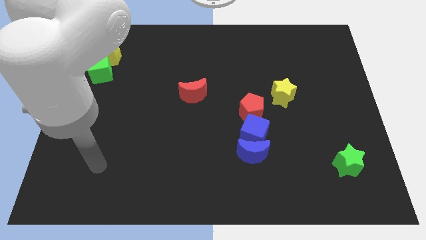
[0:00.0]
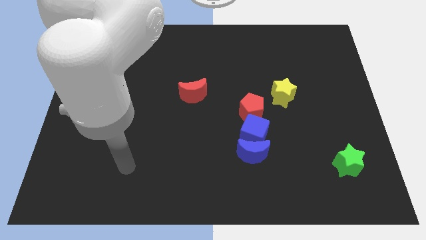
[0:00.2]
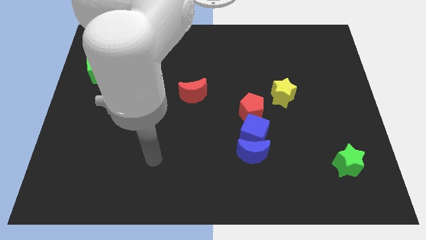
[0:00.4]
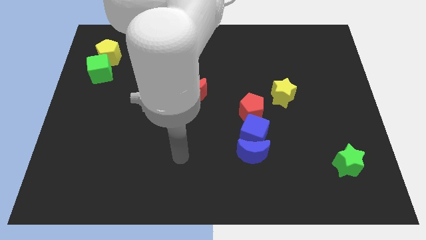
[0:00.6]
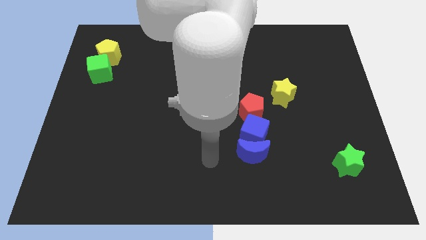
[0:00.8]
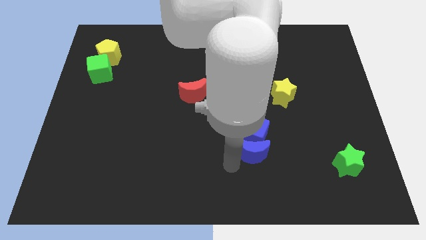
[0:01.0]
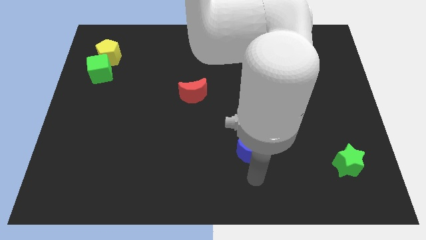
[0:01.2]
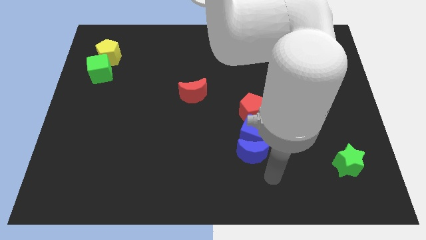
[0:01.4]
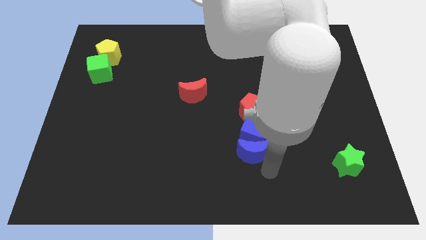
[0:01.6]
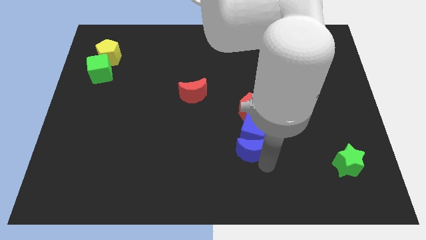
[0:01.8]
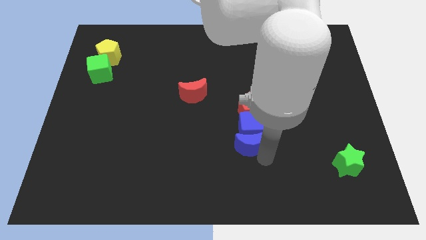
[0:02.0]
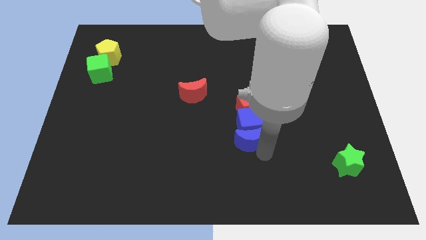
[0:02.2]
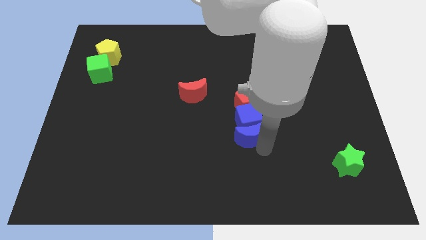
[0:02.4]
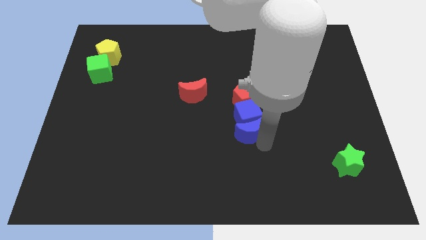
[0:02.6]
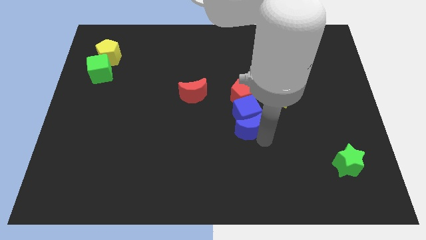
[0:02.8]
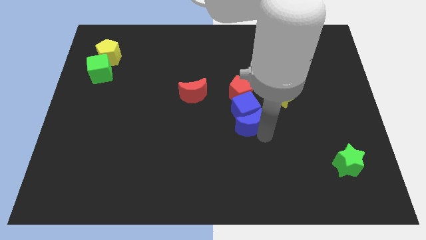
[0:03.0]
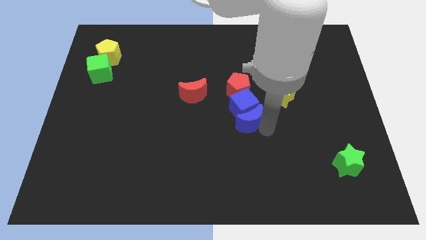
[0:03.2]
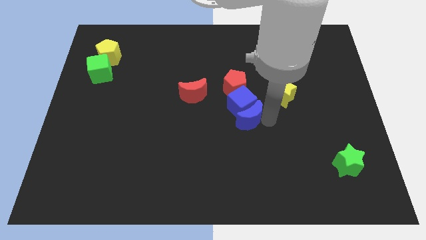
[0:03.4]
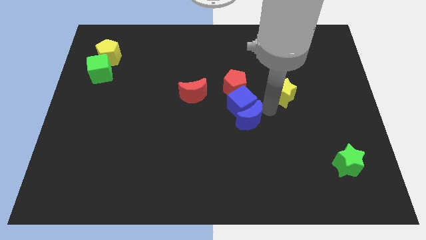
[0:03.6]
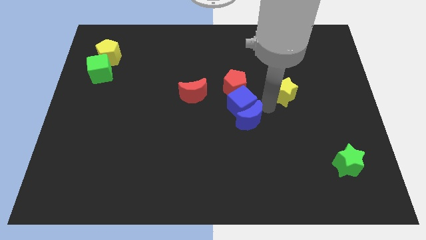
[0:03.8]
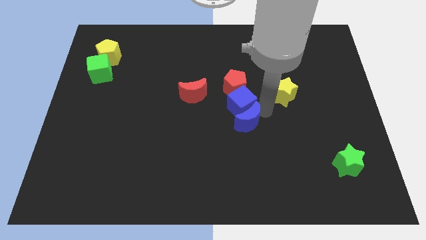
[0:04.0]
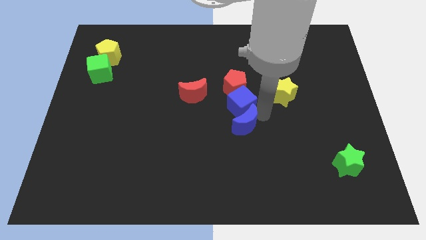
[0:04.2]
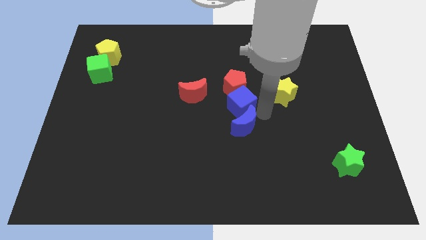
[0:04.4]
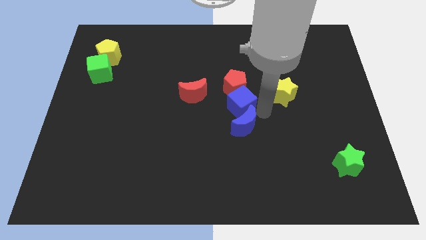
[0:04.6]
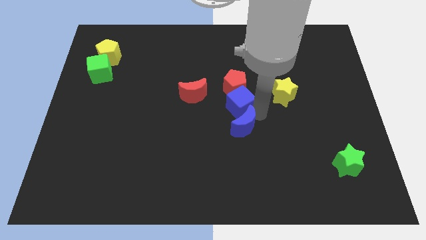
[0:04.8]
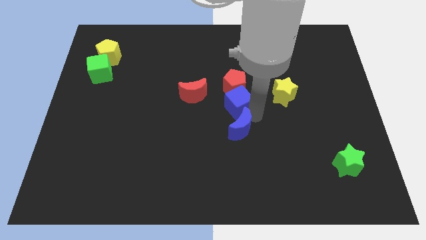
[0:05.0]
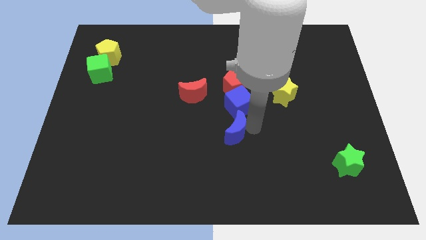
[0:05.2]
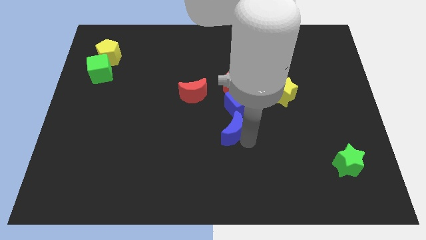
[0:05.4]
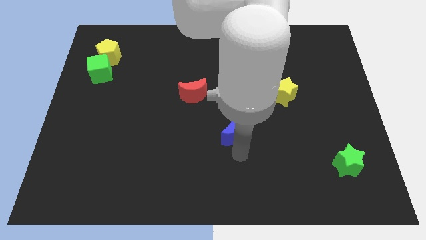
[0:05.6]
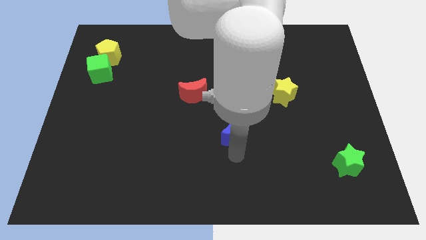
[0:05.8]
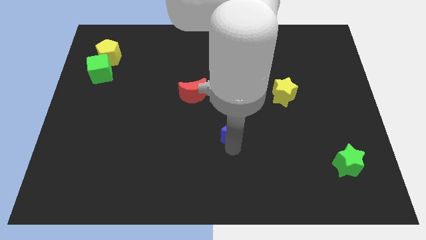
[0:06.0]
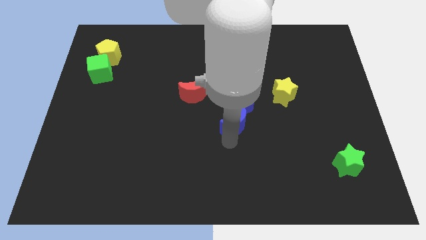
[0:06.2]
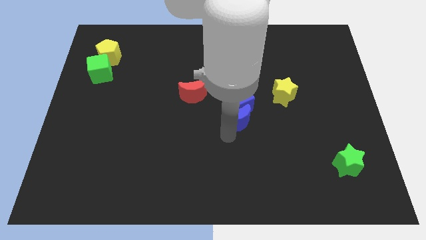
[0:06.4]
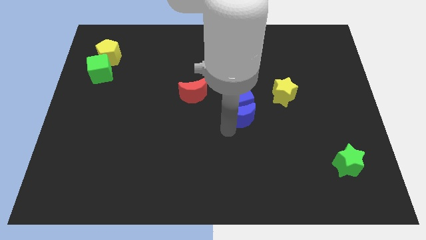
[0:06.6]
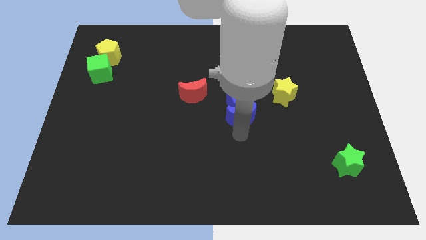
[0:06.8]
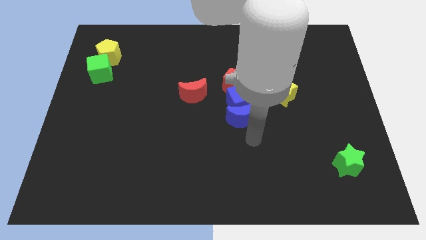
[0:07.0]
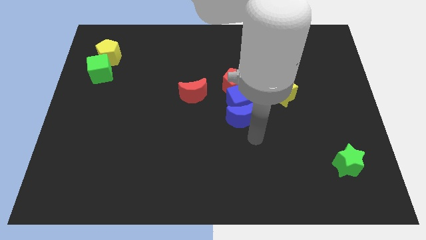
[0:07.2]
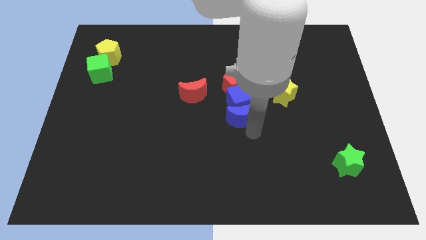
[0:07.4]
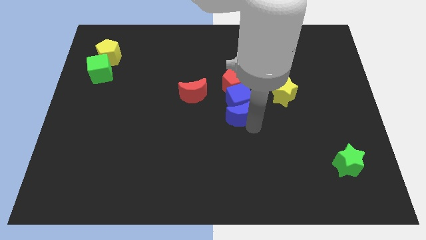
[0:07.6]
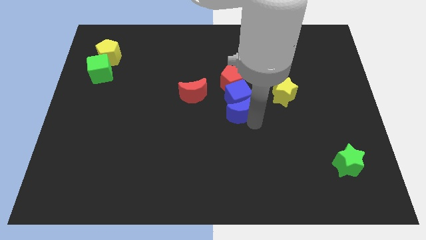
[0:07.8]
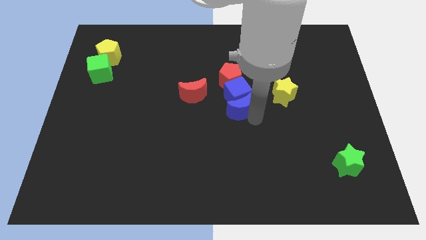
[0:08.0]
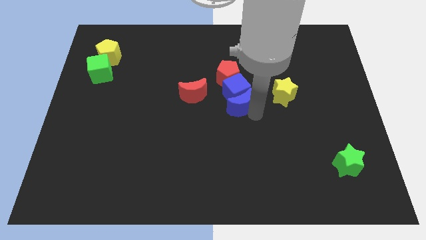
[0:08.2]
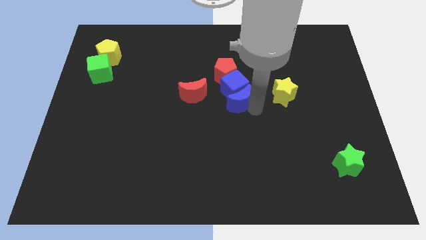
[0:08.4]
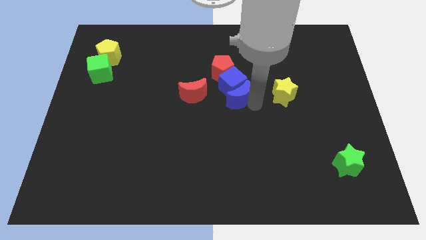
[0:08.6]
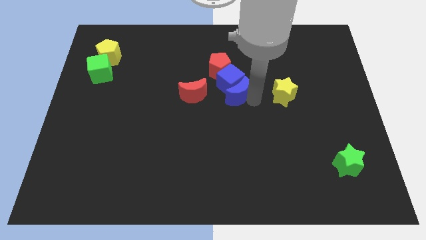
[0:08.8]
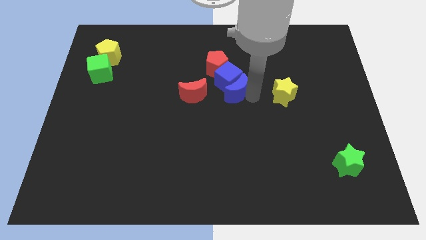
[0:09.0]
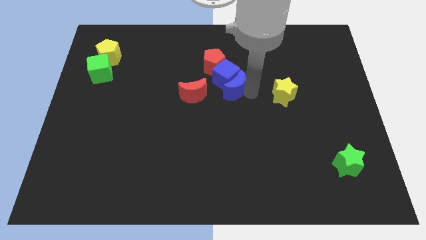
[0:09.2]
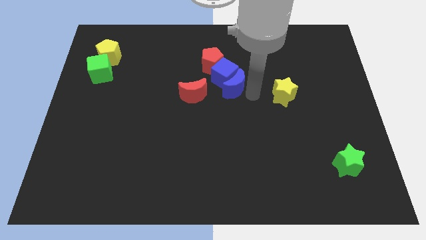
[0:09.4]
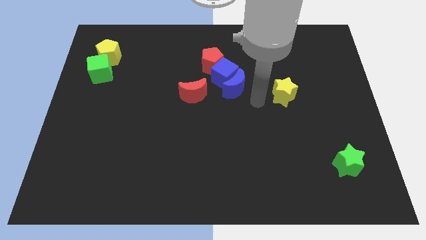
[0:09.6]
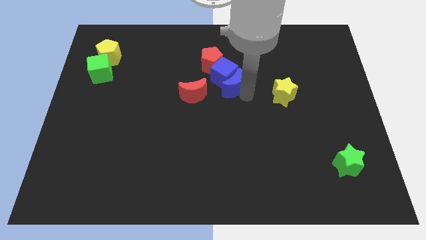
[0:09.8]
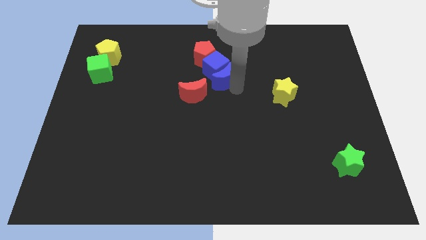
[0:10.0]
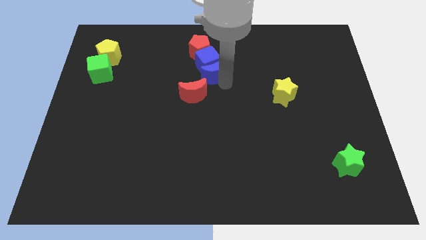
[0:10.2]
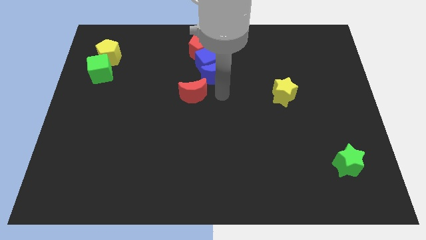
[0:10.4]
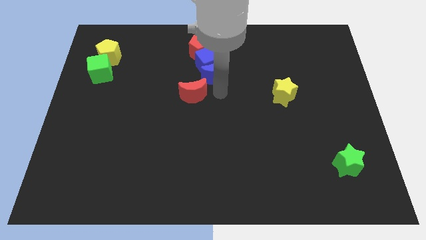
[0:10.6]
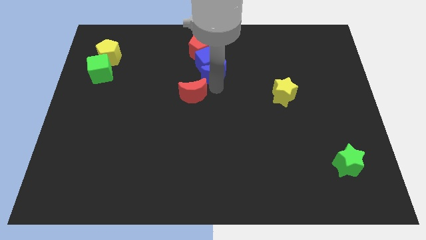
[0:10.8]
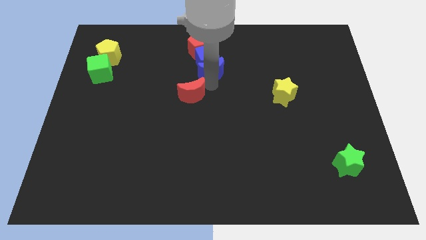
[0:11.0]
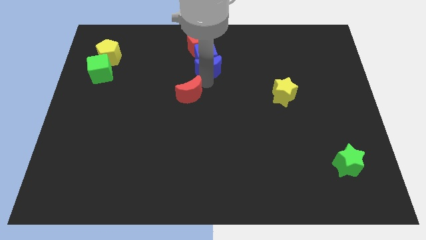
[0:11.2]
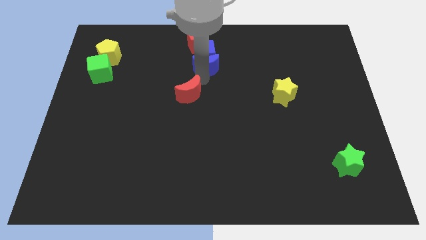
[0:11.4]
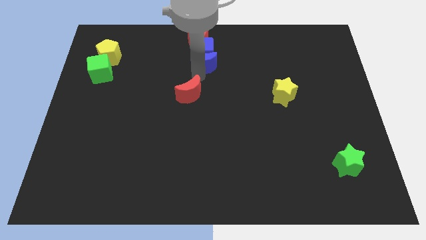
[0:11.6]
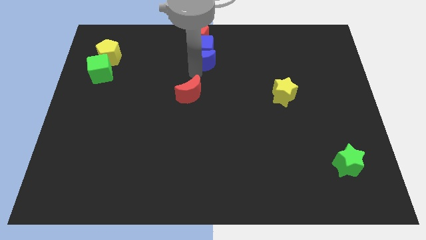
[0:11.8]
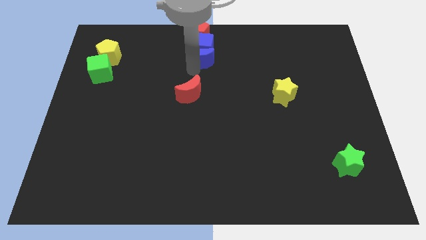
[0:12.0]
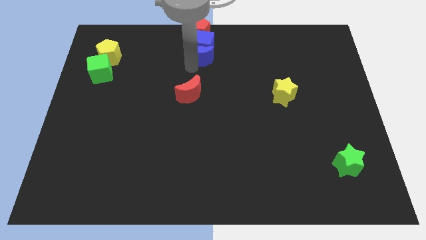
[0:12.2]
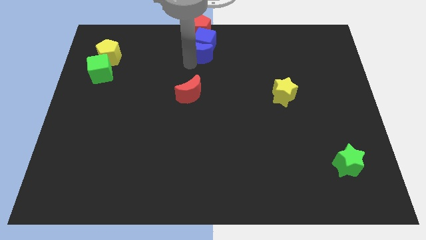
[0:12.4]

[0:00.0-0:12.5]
put the blue moon to the towards your base
